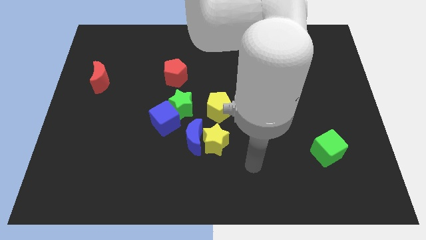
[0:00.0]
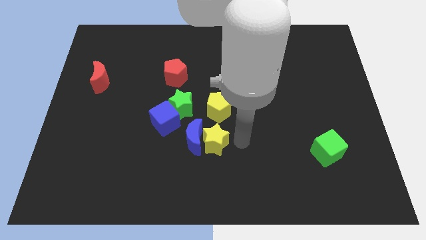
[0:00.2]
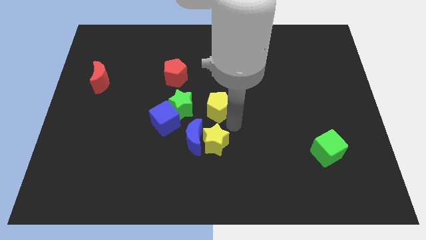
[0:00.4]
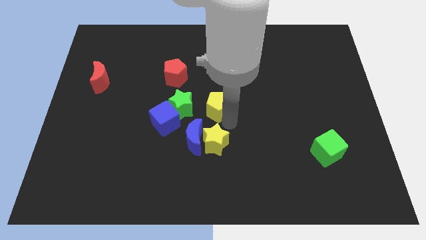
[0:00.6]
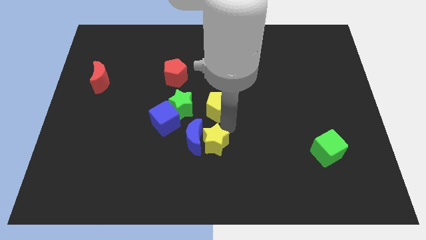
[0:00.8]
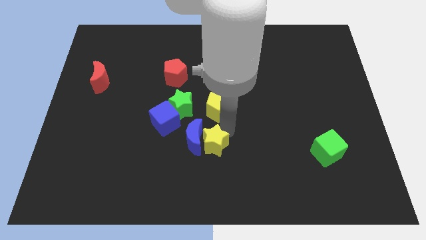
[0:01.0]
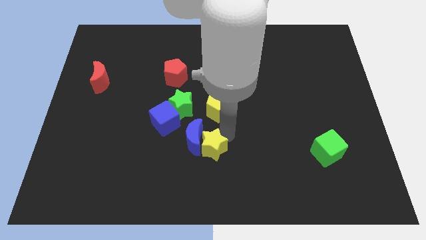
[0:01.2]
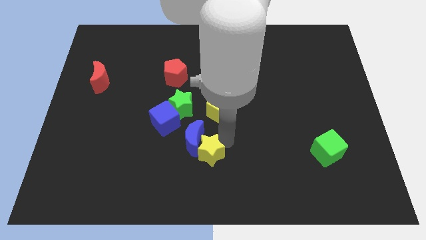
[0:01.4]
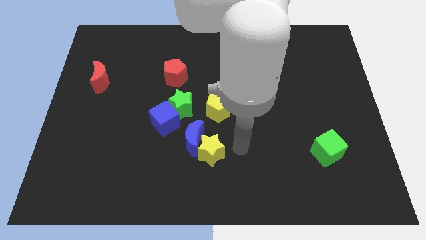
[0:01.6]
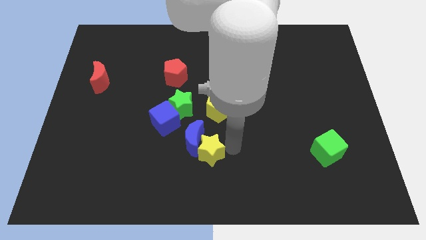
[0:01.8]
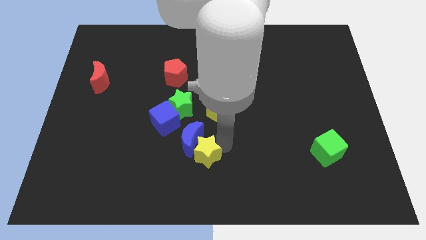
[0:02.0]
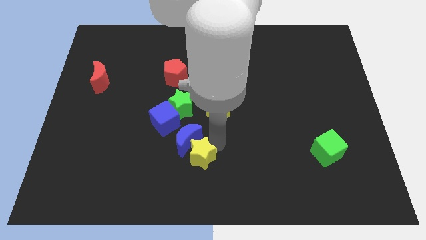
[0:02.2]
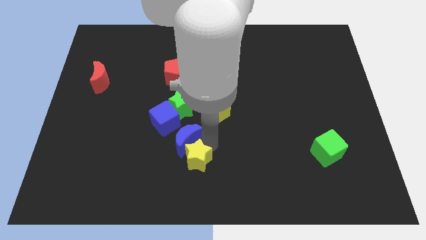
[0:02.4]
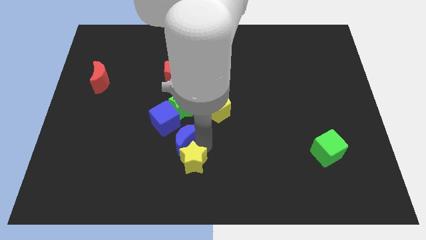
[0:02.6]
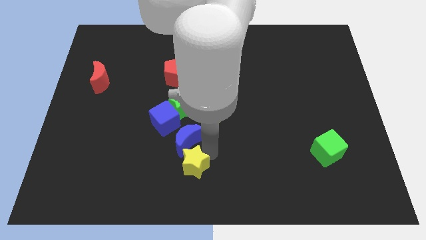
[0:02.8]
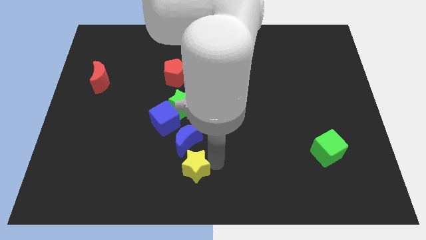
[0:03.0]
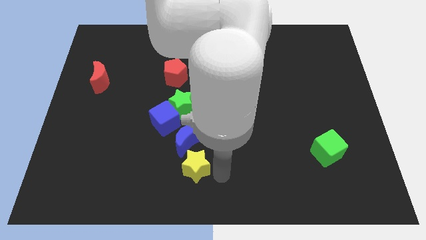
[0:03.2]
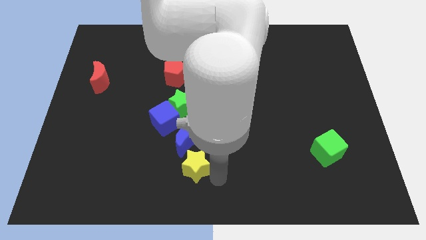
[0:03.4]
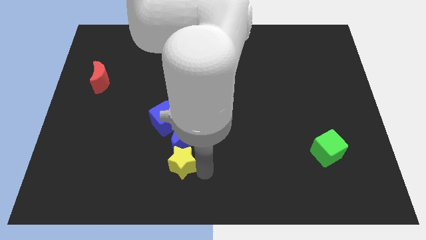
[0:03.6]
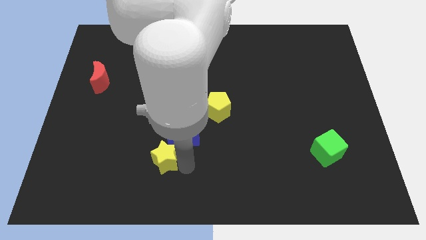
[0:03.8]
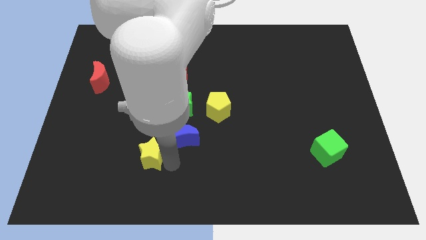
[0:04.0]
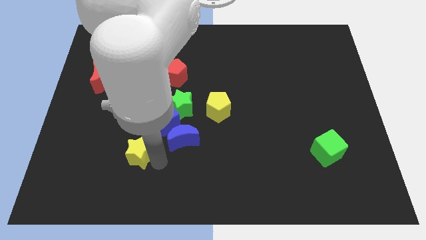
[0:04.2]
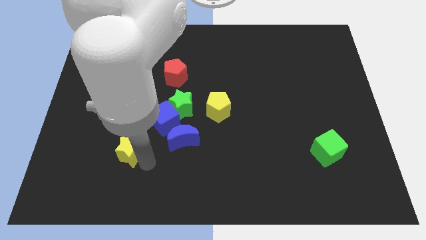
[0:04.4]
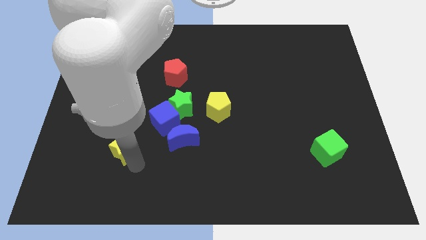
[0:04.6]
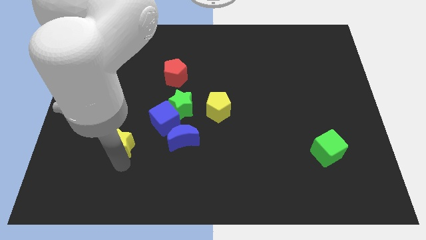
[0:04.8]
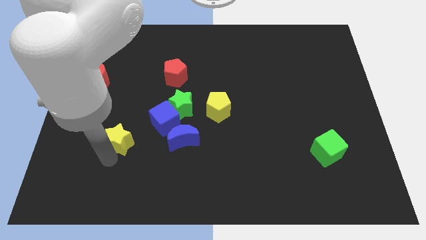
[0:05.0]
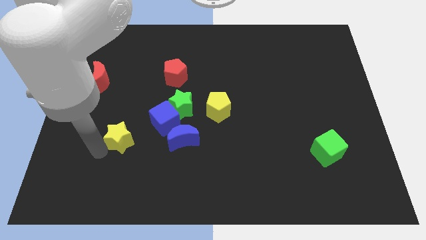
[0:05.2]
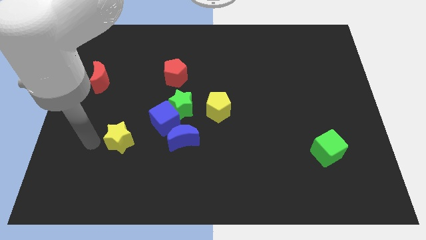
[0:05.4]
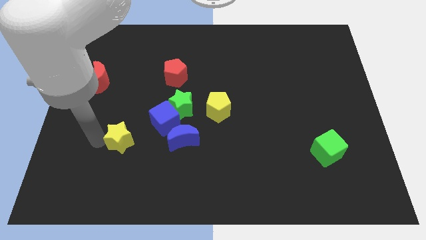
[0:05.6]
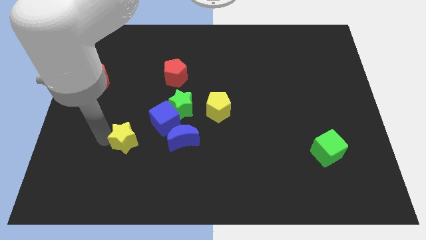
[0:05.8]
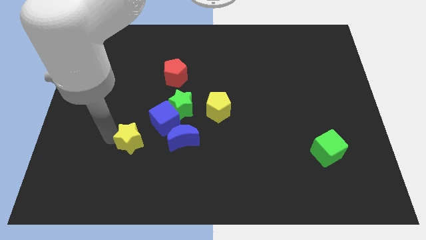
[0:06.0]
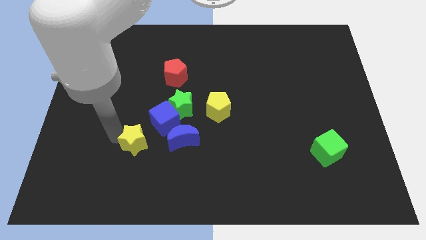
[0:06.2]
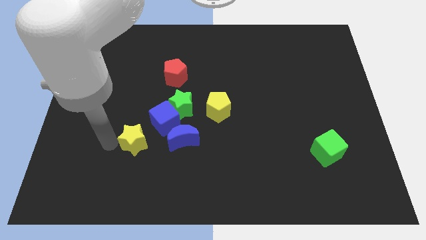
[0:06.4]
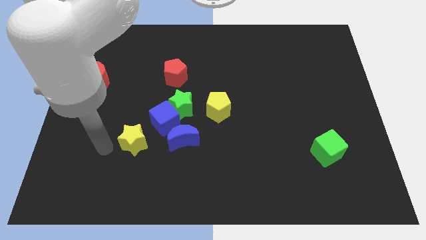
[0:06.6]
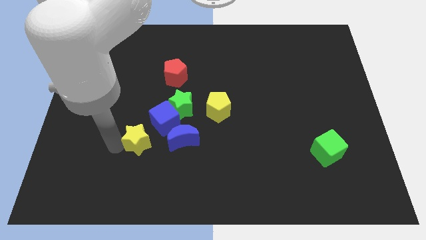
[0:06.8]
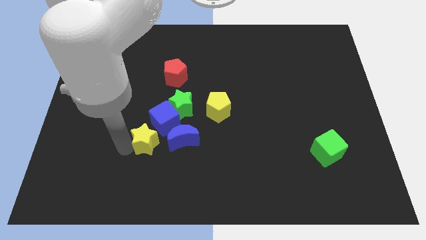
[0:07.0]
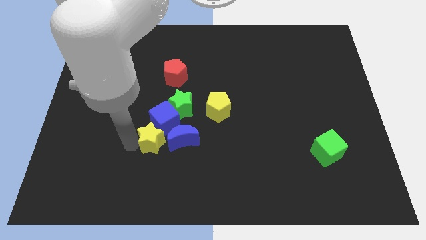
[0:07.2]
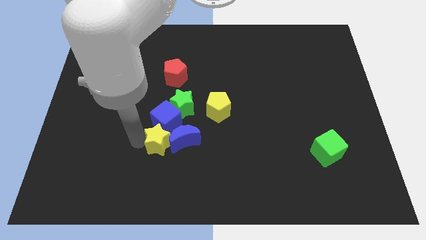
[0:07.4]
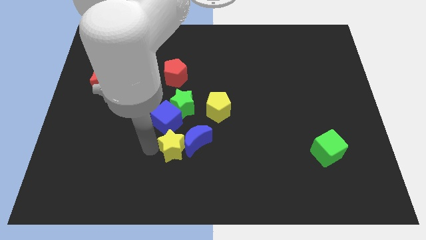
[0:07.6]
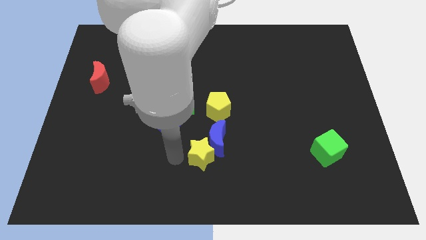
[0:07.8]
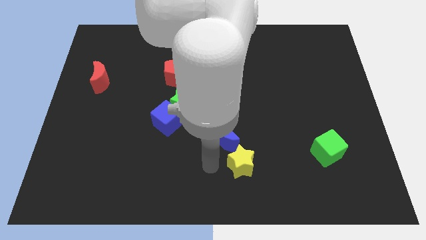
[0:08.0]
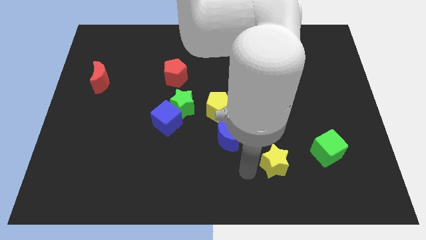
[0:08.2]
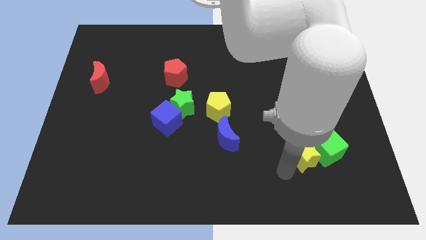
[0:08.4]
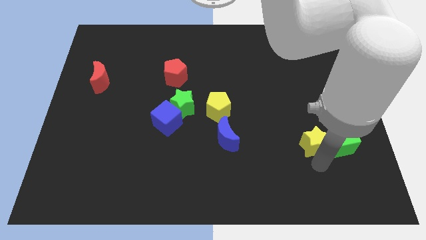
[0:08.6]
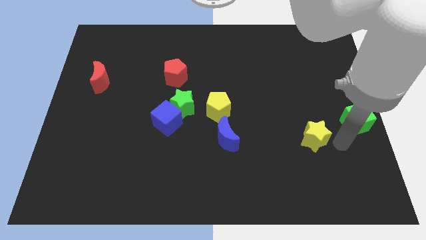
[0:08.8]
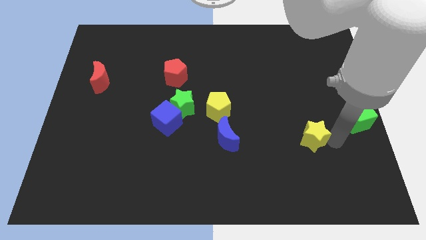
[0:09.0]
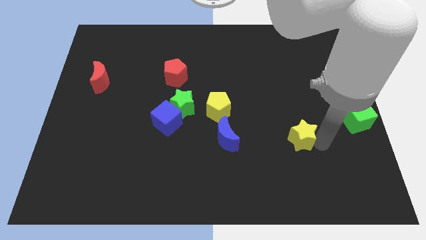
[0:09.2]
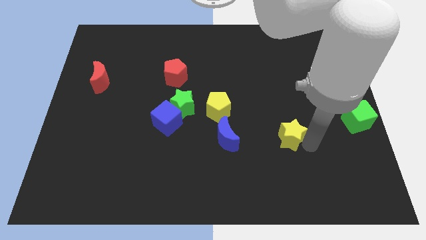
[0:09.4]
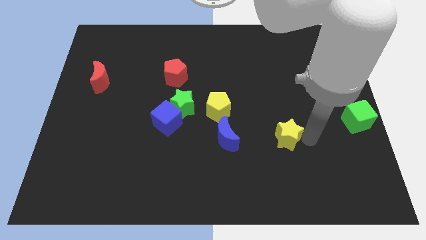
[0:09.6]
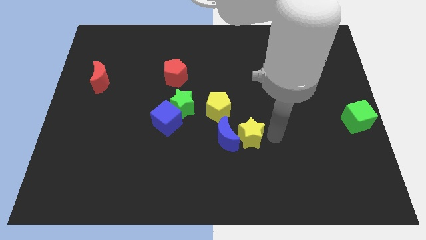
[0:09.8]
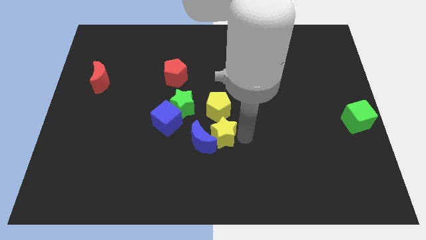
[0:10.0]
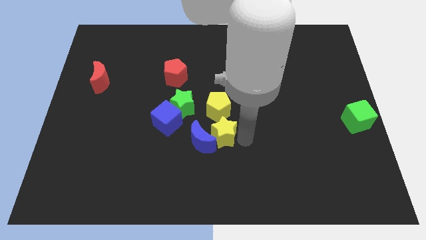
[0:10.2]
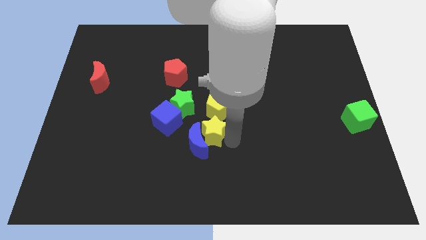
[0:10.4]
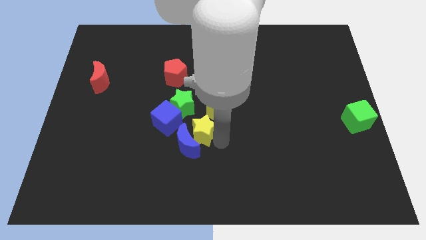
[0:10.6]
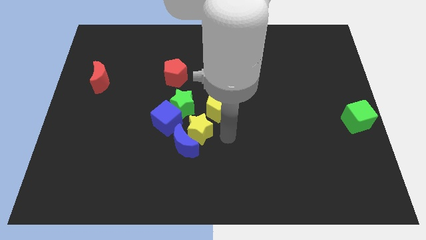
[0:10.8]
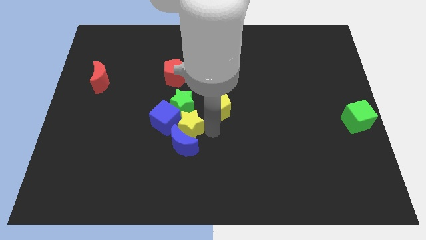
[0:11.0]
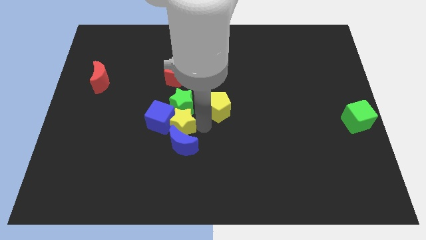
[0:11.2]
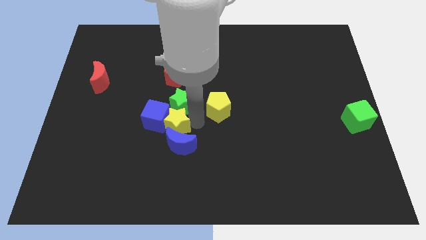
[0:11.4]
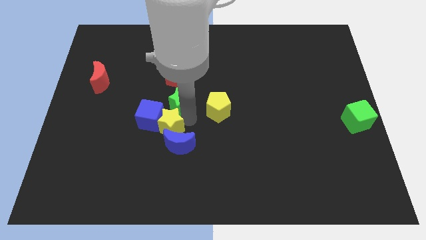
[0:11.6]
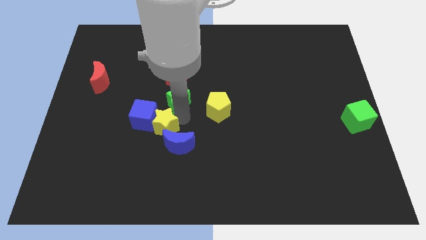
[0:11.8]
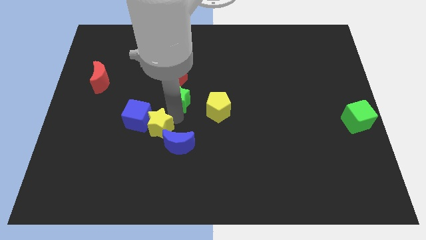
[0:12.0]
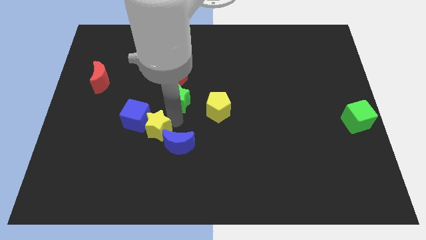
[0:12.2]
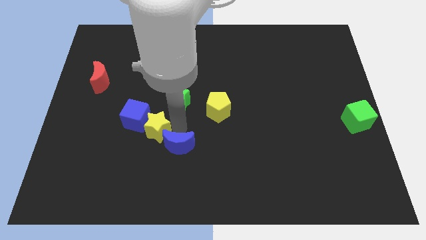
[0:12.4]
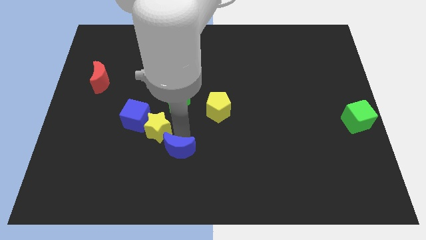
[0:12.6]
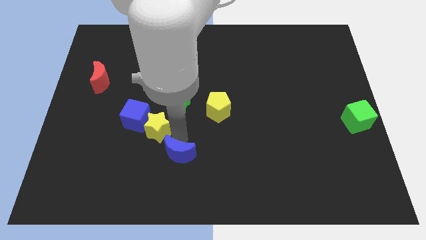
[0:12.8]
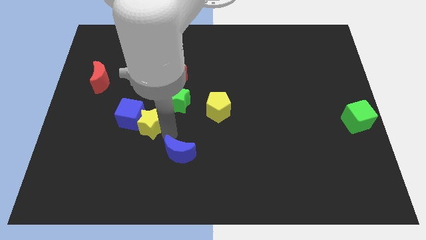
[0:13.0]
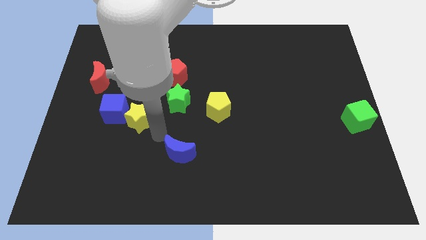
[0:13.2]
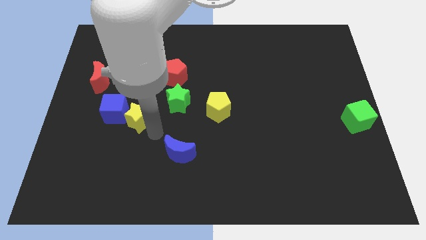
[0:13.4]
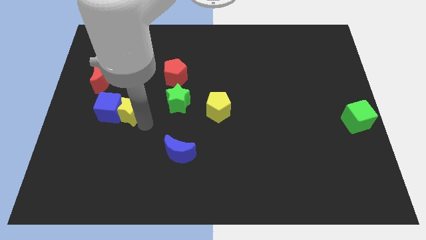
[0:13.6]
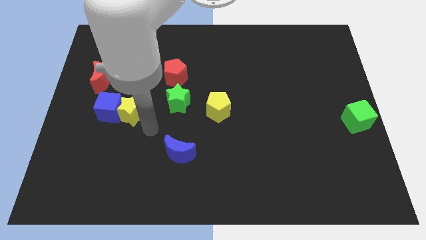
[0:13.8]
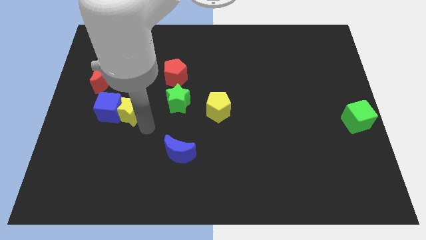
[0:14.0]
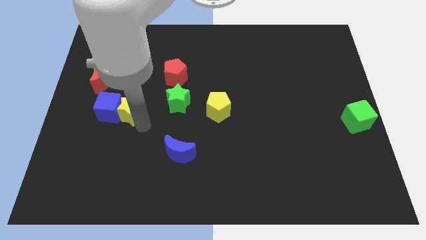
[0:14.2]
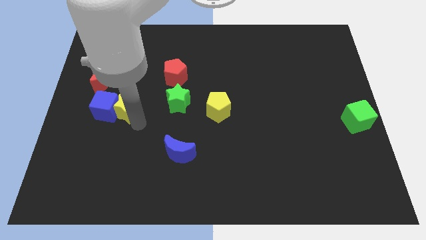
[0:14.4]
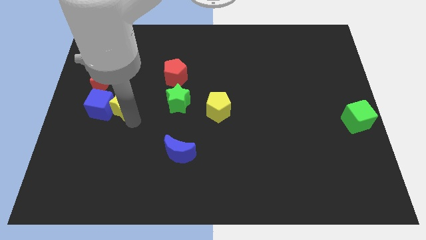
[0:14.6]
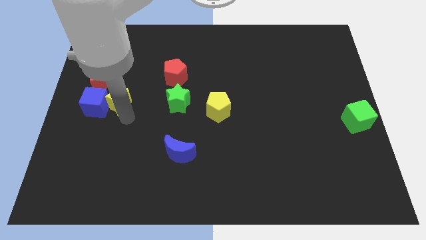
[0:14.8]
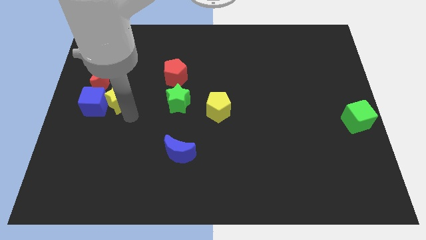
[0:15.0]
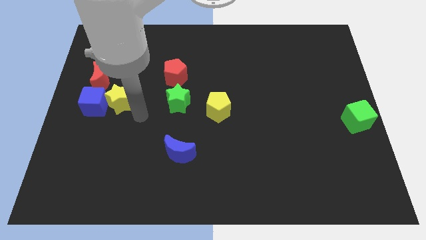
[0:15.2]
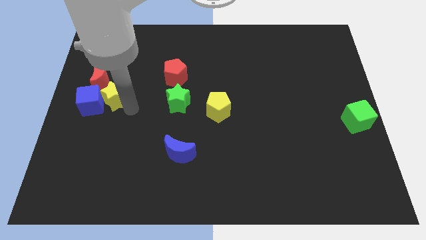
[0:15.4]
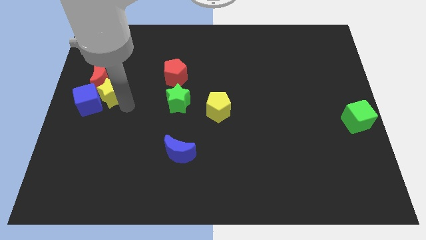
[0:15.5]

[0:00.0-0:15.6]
move the yellow star close to the red moon

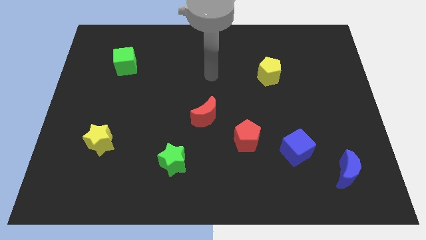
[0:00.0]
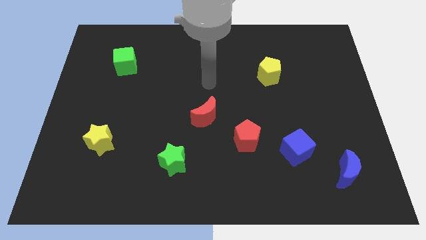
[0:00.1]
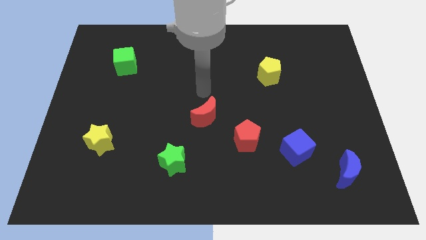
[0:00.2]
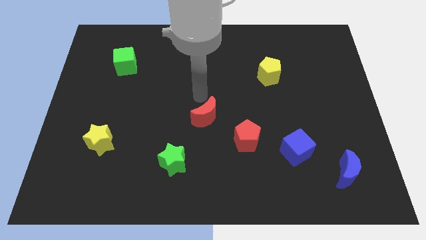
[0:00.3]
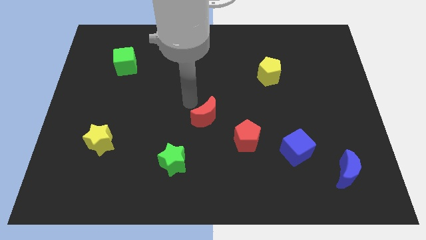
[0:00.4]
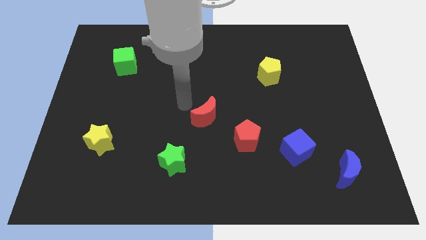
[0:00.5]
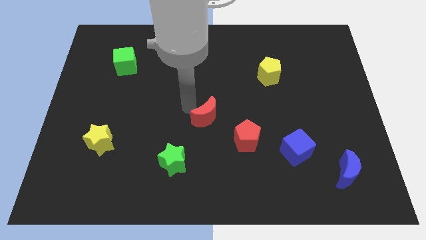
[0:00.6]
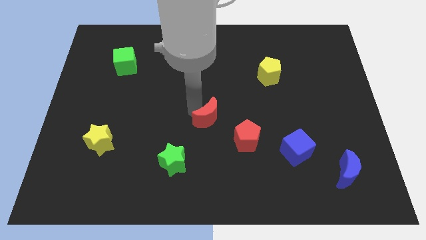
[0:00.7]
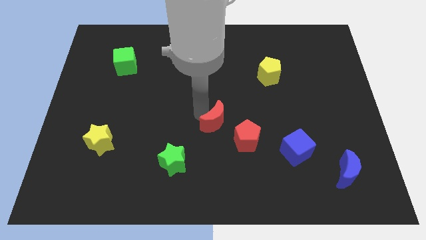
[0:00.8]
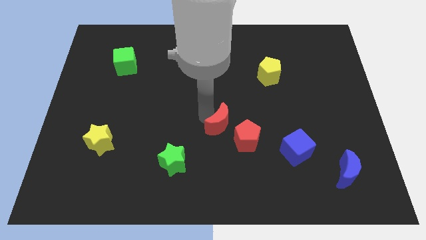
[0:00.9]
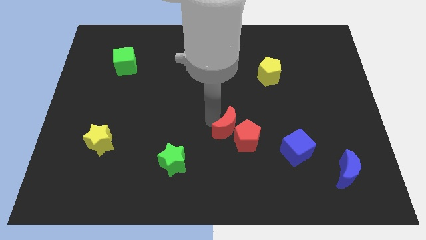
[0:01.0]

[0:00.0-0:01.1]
slide the red moon to the red pentagon
